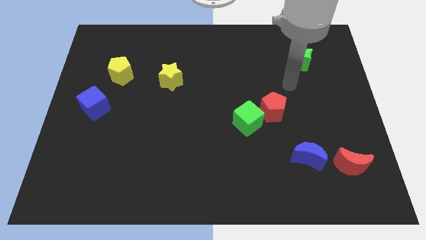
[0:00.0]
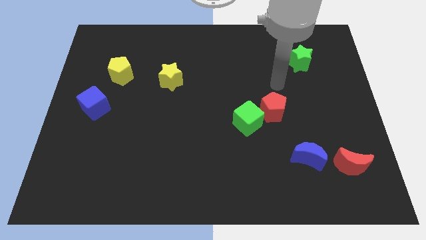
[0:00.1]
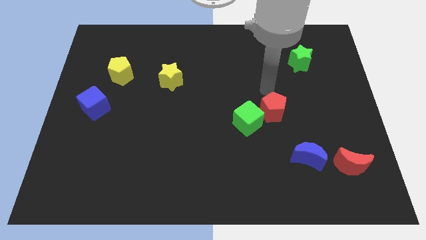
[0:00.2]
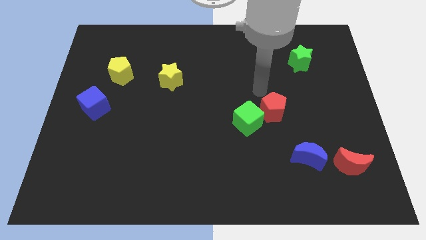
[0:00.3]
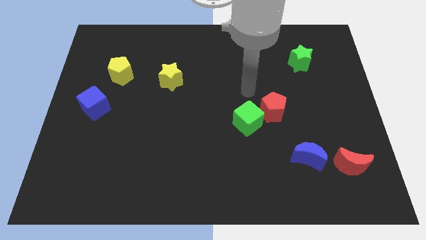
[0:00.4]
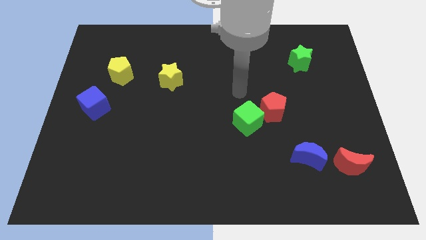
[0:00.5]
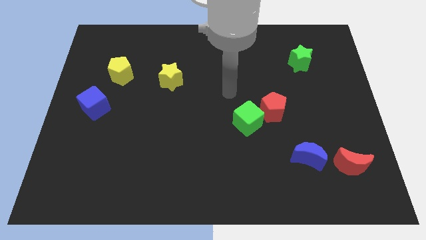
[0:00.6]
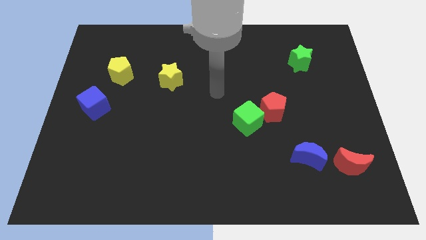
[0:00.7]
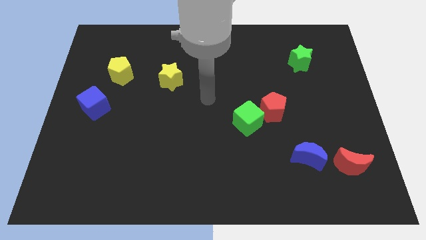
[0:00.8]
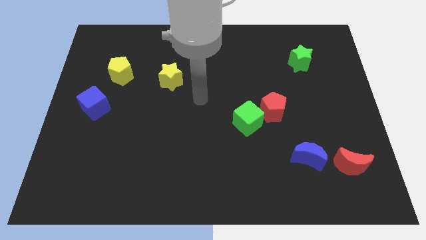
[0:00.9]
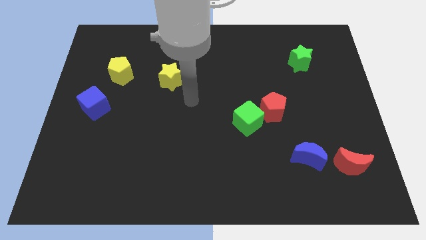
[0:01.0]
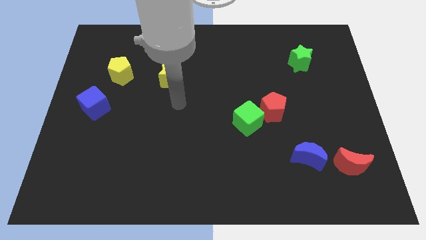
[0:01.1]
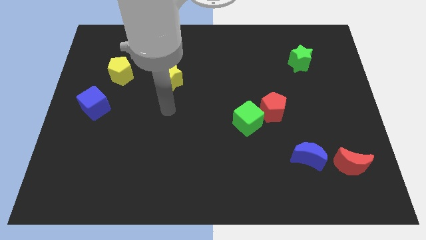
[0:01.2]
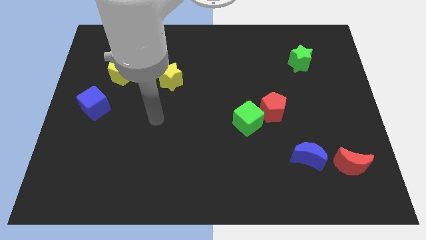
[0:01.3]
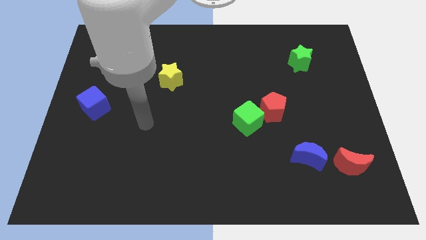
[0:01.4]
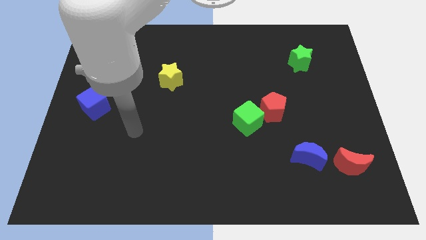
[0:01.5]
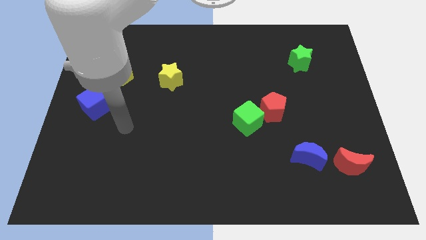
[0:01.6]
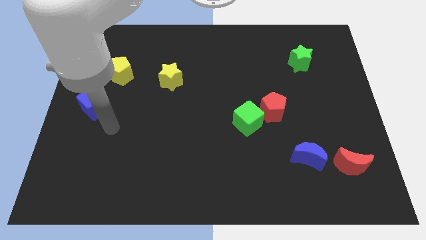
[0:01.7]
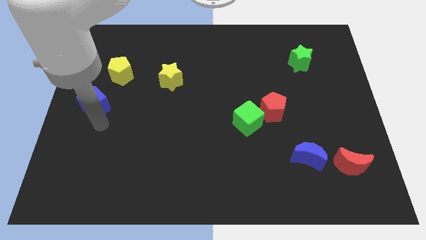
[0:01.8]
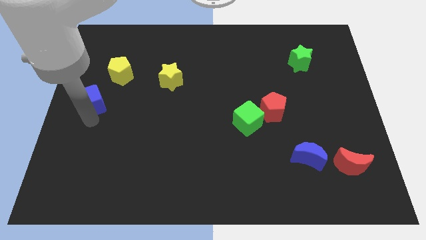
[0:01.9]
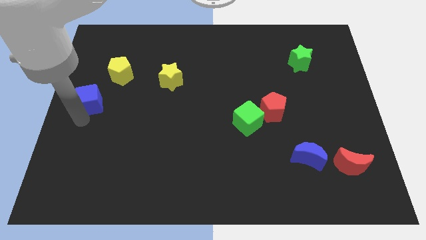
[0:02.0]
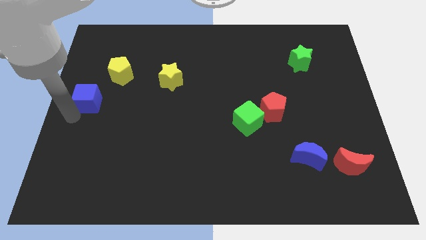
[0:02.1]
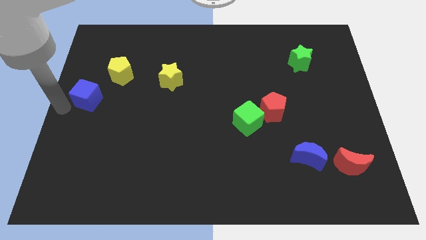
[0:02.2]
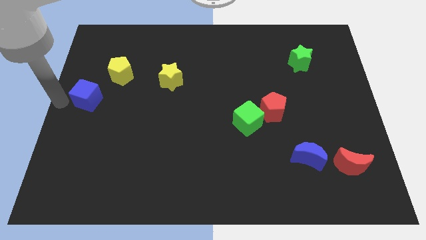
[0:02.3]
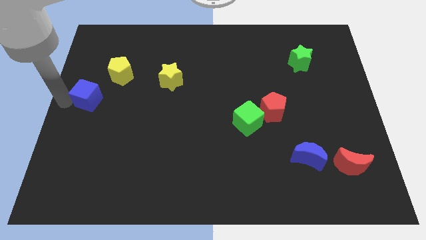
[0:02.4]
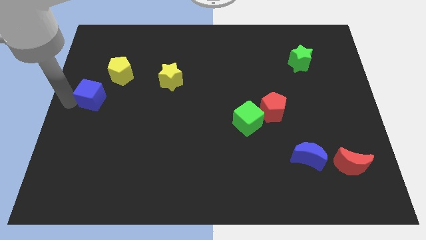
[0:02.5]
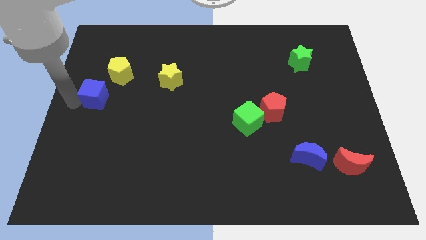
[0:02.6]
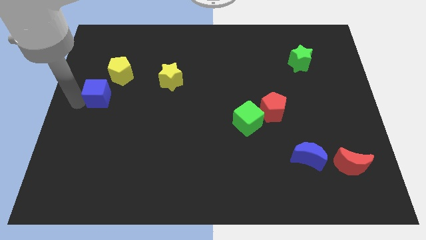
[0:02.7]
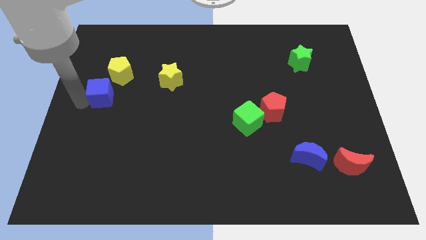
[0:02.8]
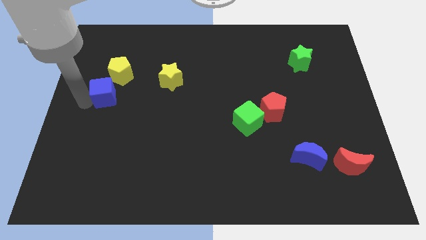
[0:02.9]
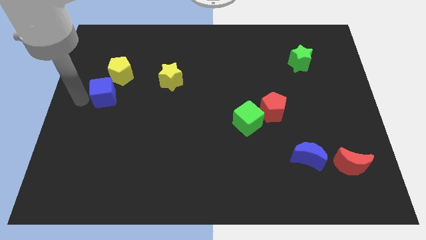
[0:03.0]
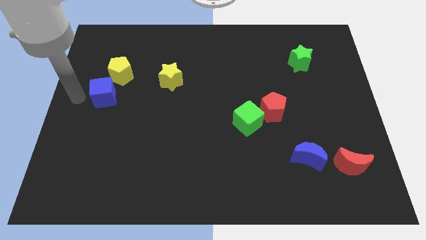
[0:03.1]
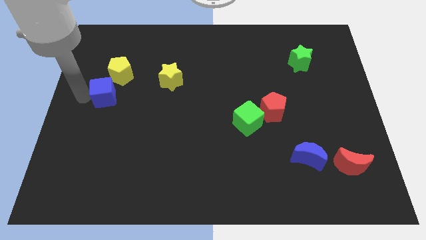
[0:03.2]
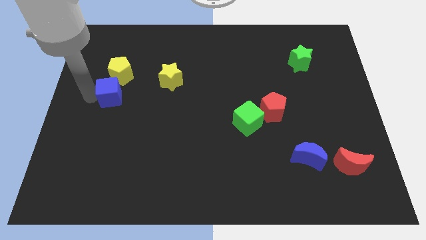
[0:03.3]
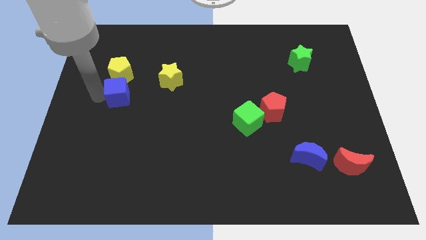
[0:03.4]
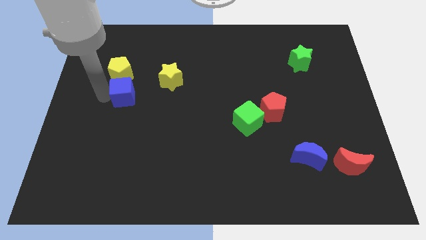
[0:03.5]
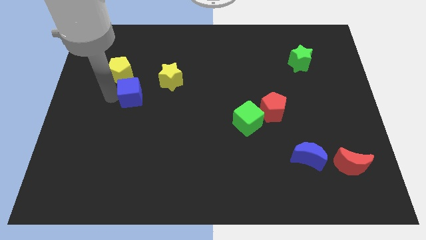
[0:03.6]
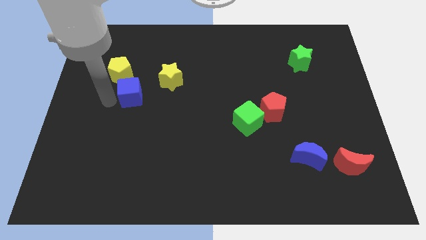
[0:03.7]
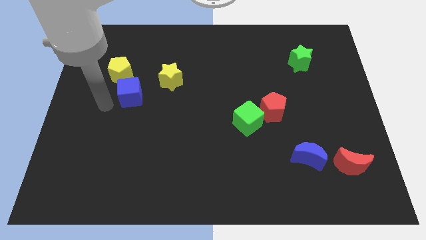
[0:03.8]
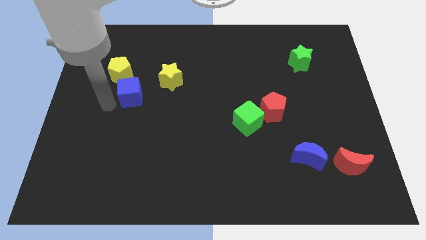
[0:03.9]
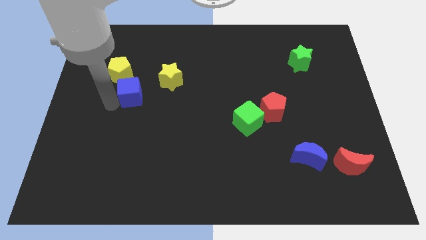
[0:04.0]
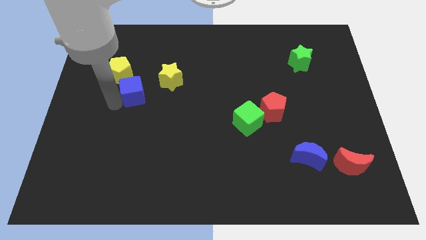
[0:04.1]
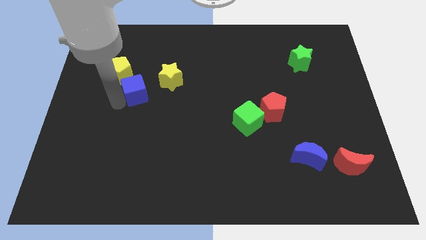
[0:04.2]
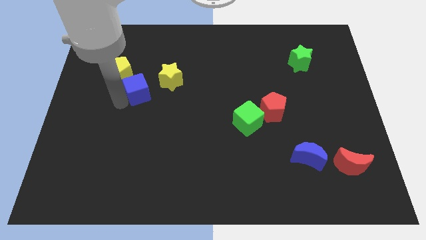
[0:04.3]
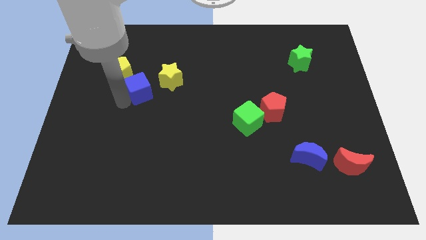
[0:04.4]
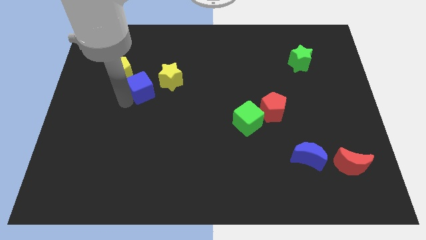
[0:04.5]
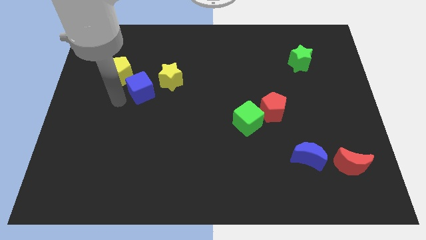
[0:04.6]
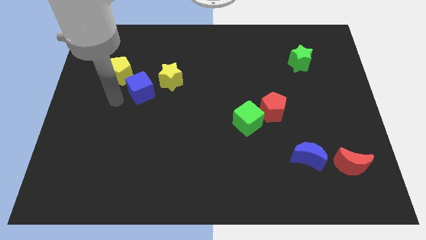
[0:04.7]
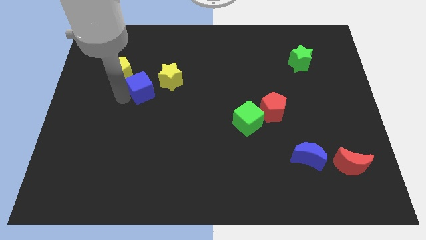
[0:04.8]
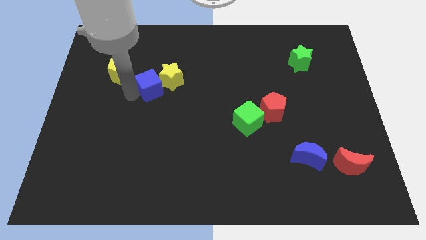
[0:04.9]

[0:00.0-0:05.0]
push the blue cube close to the yellow star

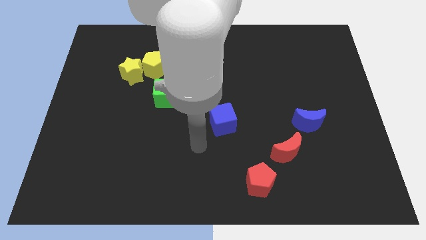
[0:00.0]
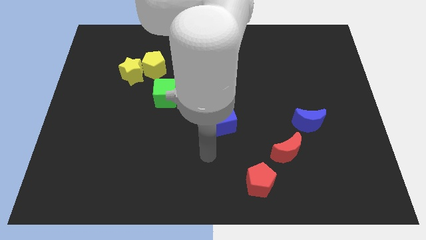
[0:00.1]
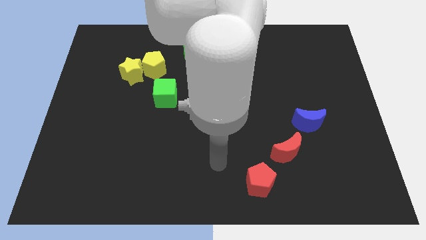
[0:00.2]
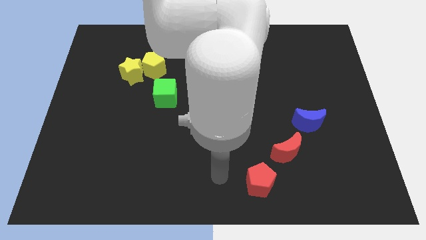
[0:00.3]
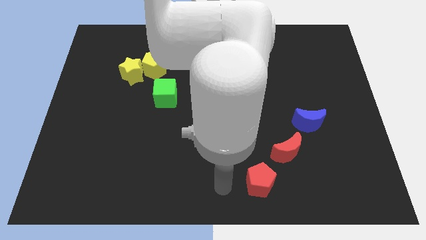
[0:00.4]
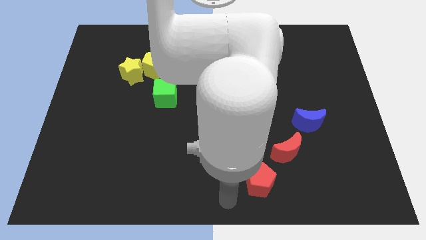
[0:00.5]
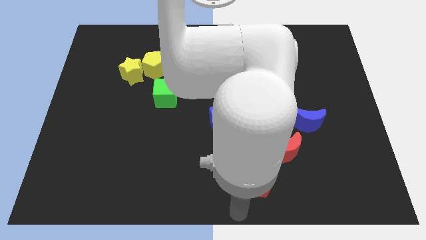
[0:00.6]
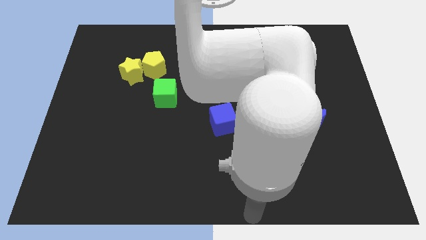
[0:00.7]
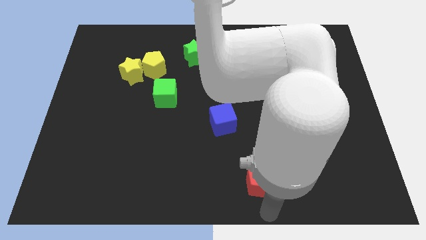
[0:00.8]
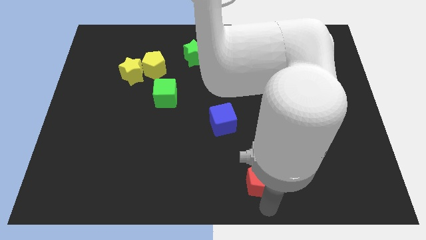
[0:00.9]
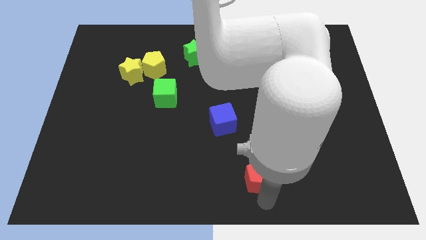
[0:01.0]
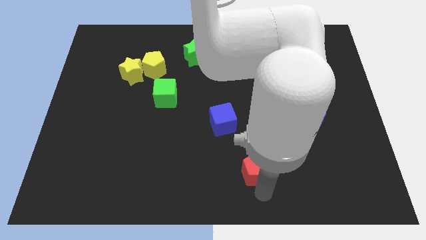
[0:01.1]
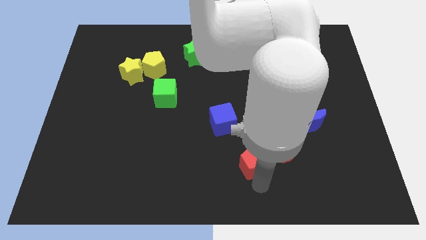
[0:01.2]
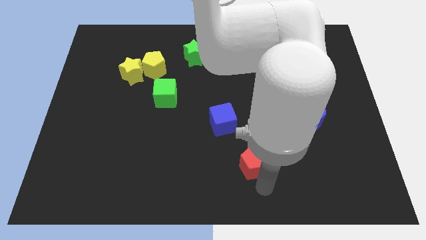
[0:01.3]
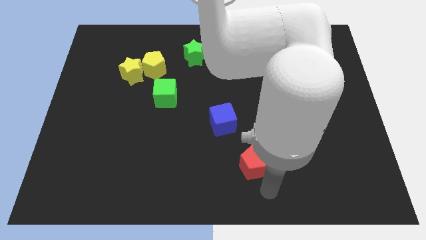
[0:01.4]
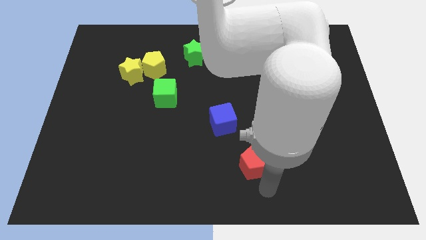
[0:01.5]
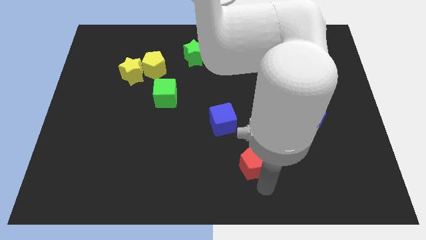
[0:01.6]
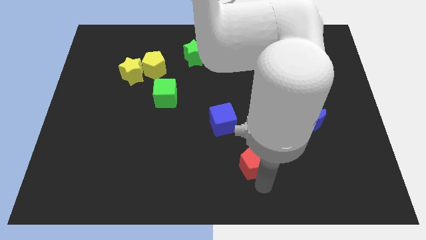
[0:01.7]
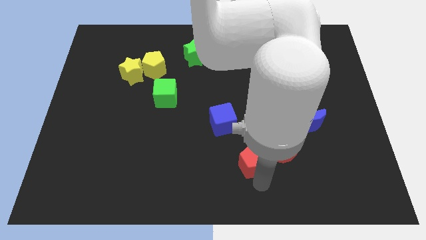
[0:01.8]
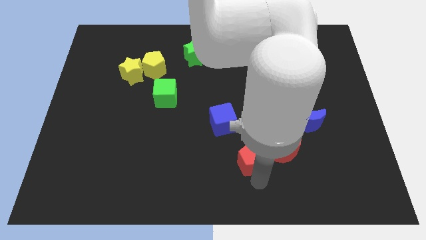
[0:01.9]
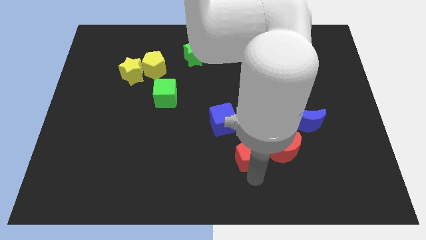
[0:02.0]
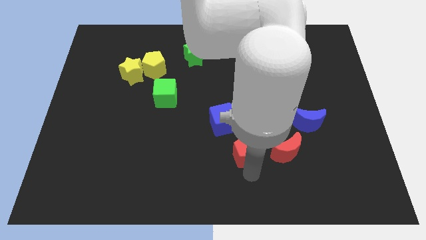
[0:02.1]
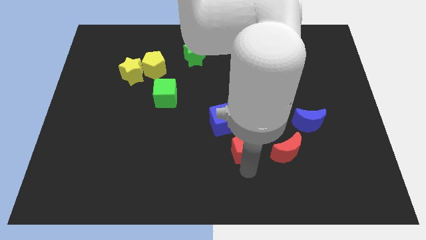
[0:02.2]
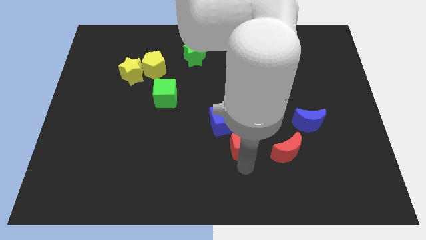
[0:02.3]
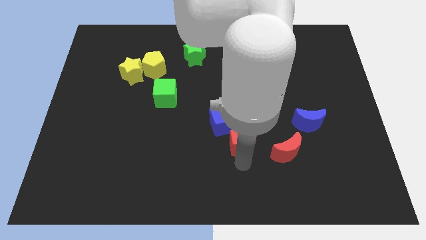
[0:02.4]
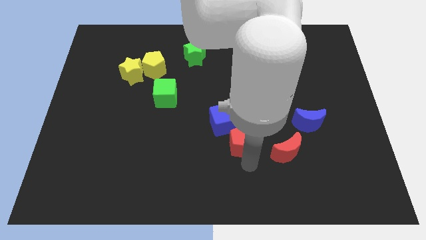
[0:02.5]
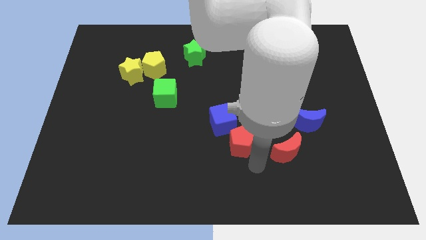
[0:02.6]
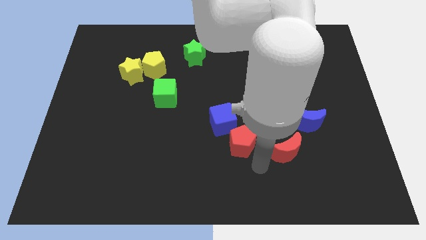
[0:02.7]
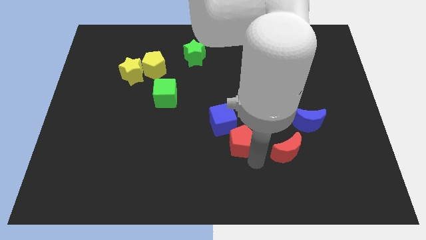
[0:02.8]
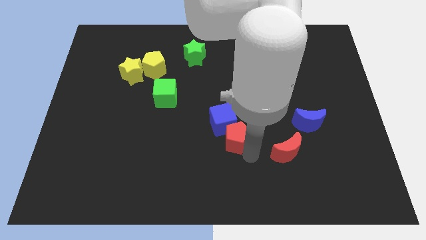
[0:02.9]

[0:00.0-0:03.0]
put the red pentagon towards the blue cube
